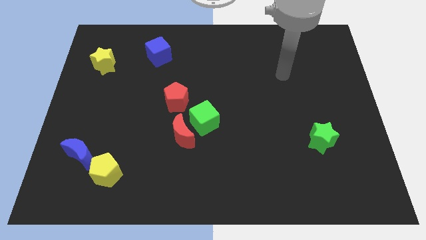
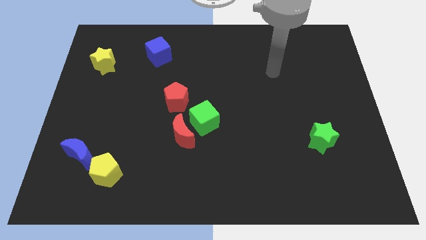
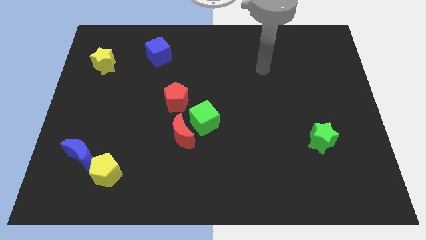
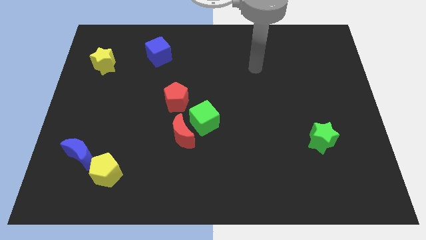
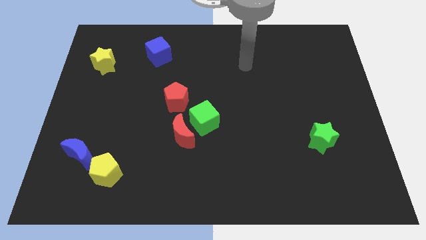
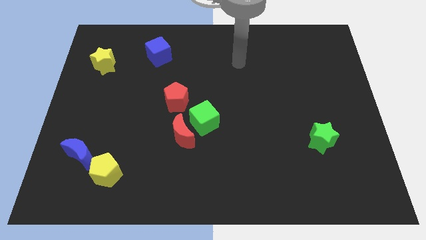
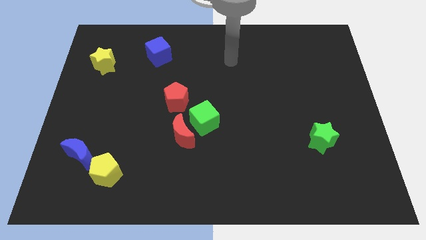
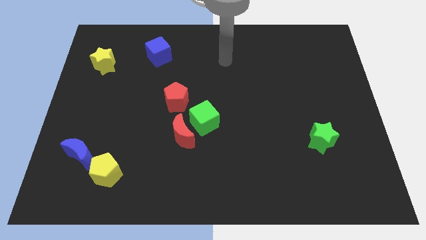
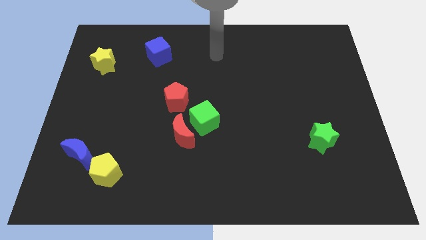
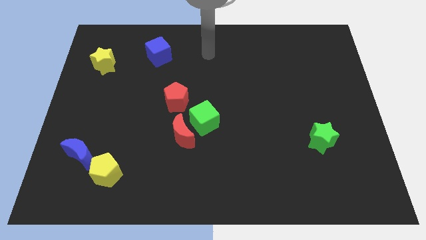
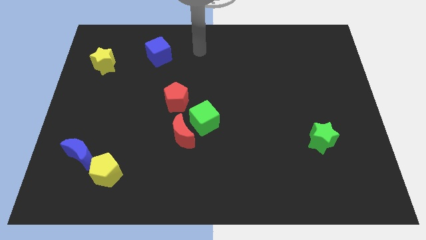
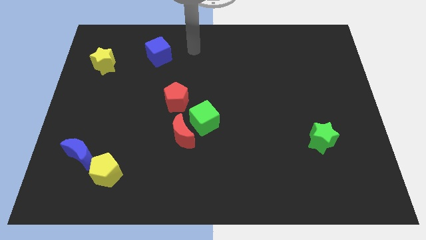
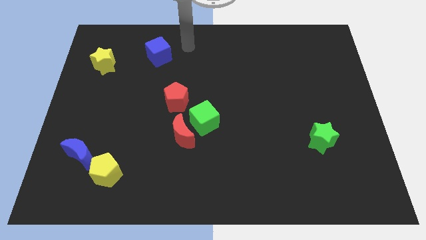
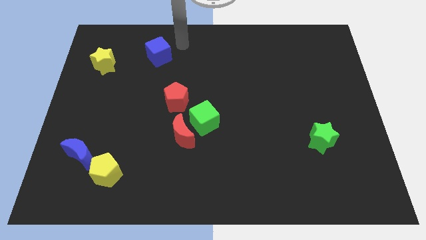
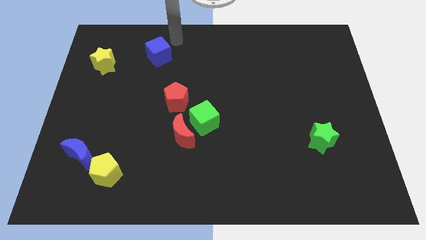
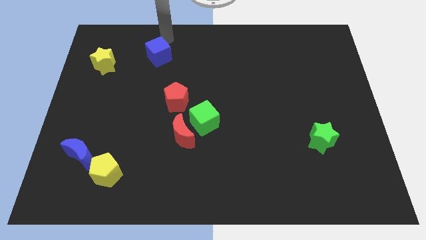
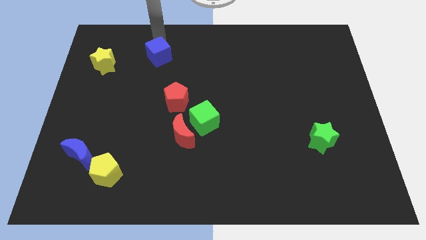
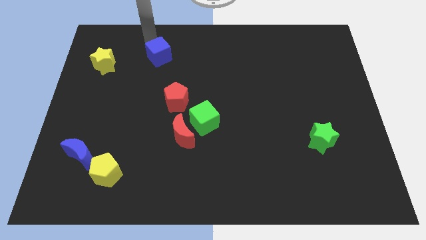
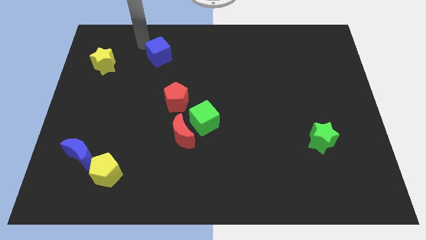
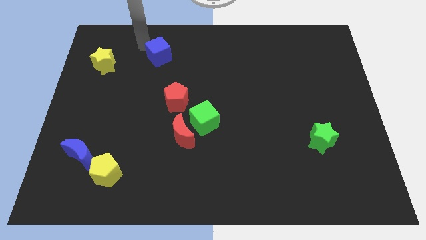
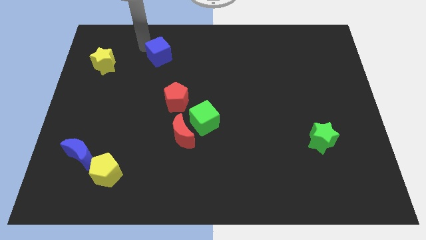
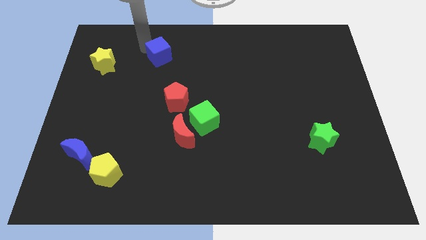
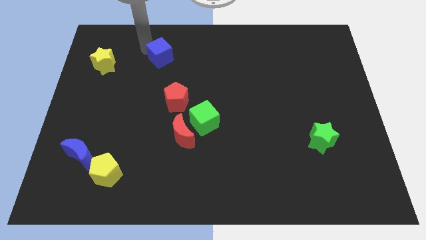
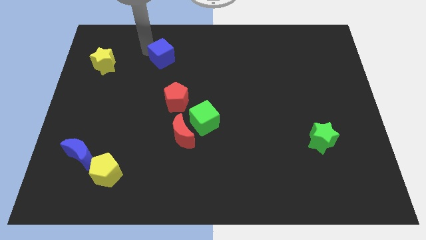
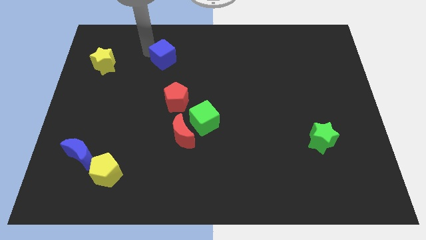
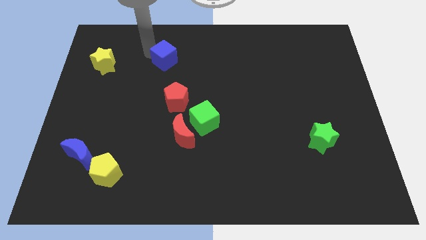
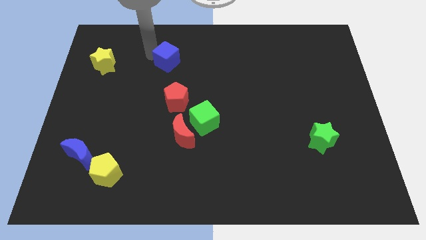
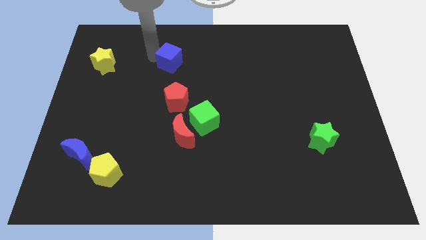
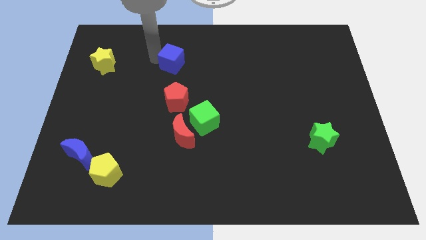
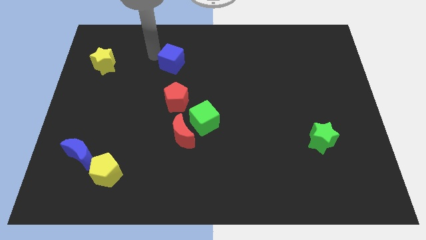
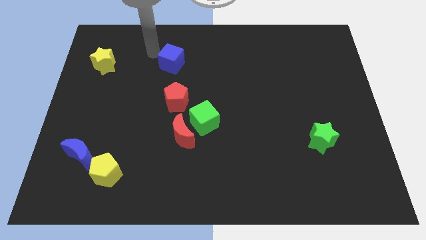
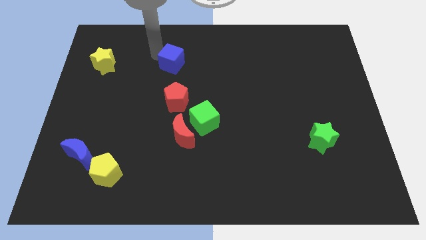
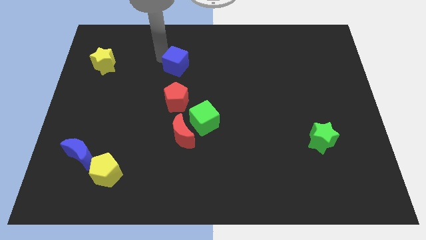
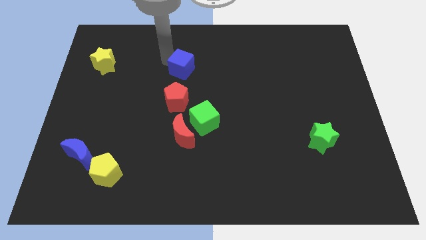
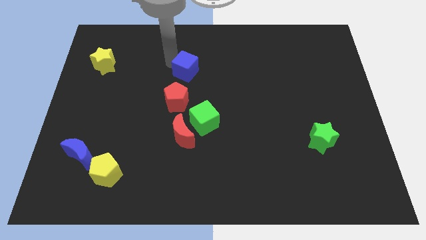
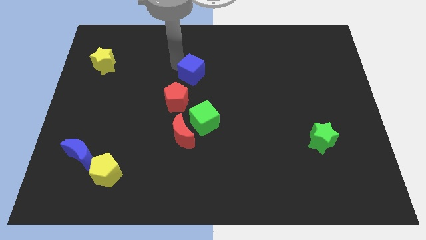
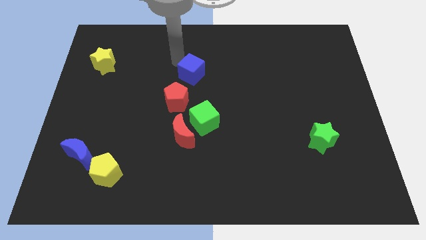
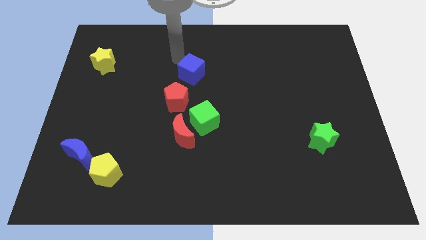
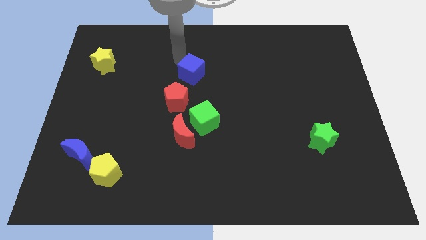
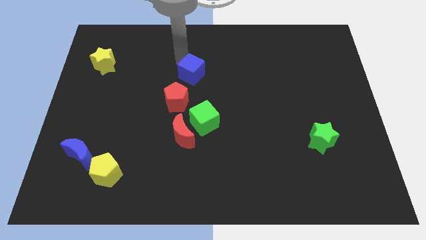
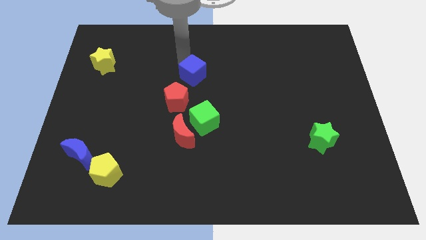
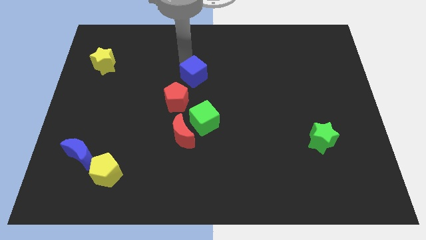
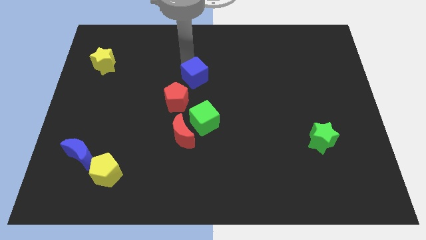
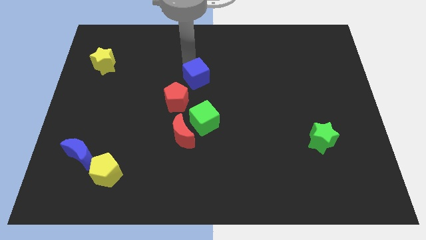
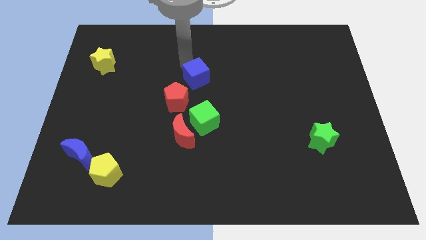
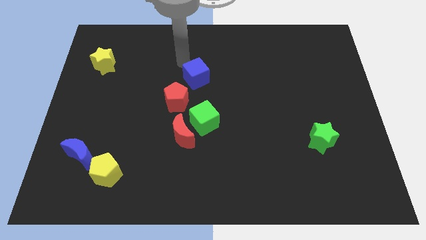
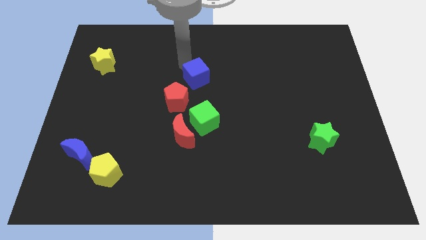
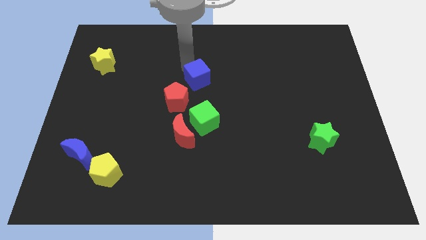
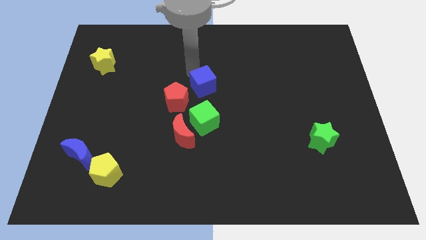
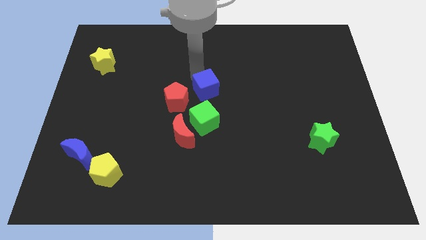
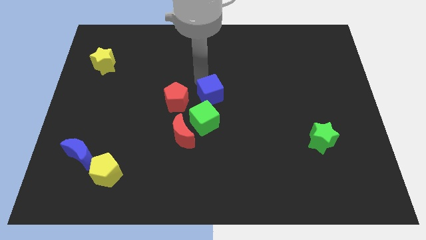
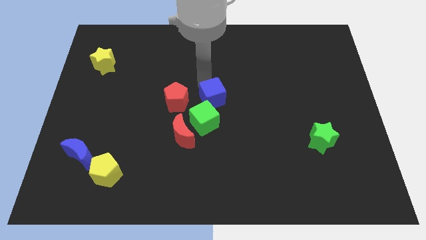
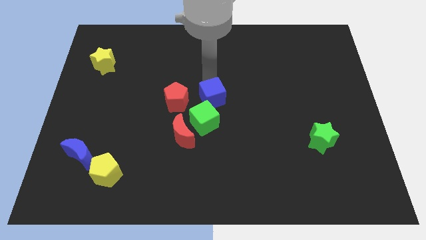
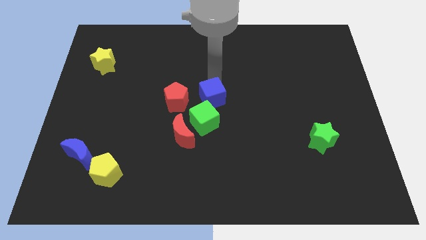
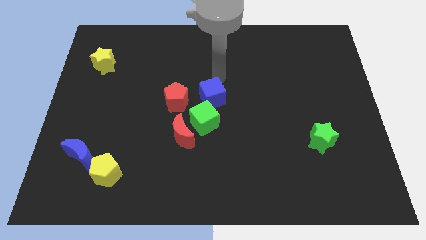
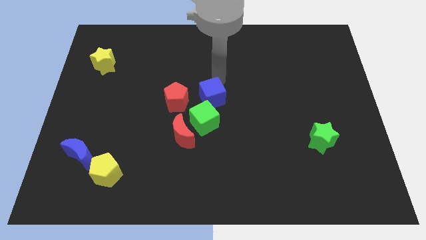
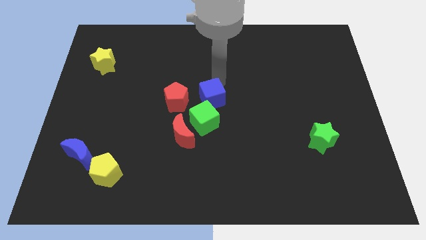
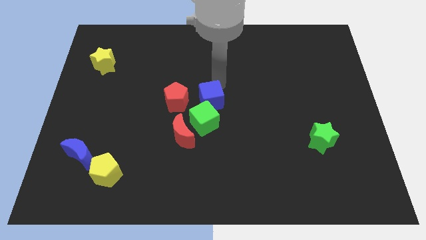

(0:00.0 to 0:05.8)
push the blue cube diagonally up and to the right of the red moon
